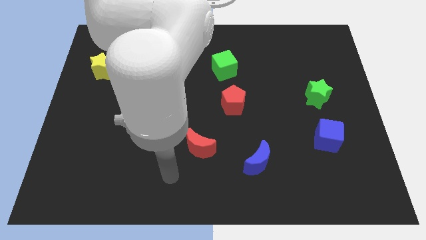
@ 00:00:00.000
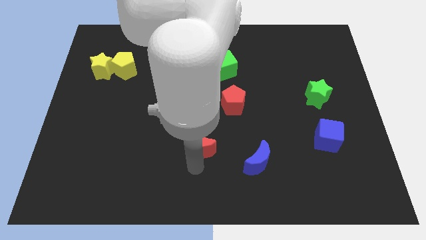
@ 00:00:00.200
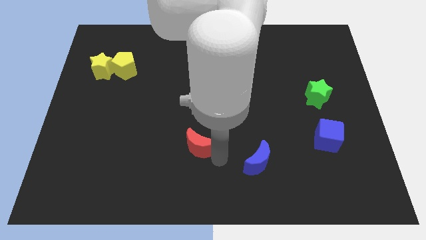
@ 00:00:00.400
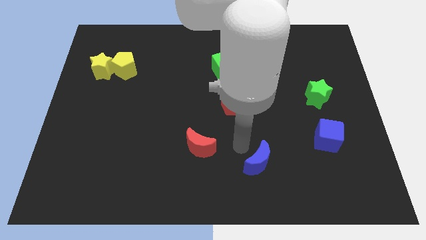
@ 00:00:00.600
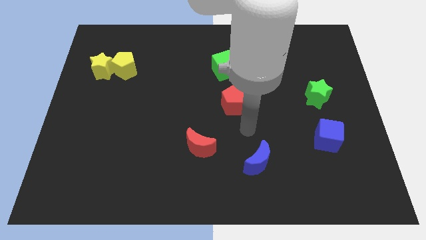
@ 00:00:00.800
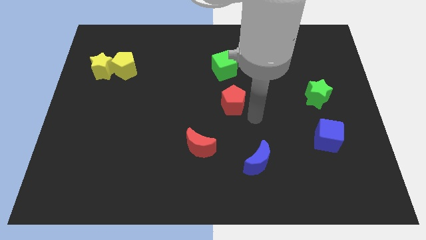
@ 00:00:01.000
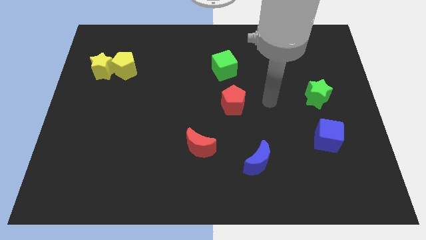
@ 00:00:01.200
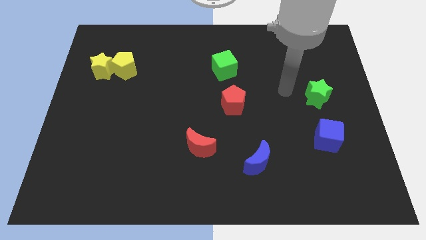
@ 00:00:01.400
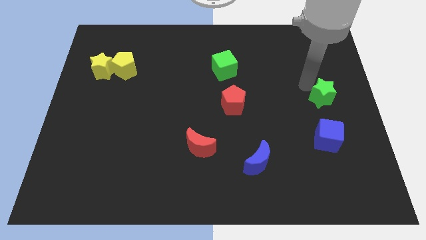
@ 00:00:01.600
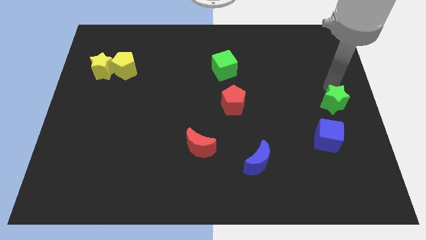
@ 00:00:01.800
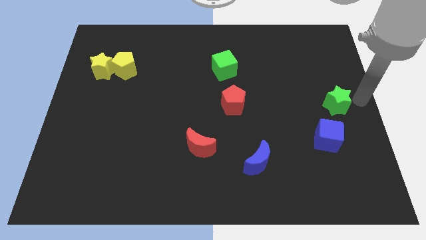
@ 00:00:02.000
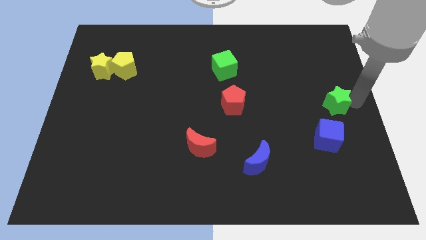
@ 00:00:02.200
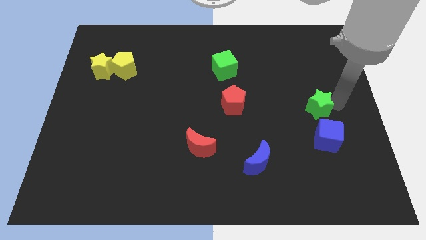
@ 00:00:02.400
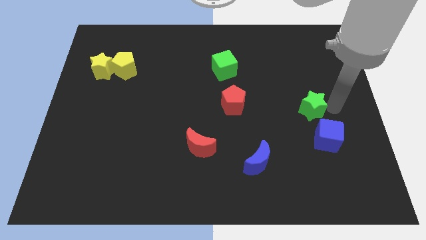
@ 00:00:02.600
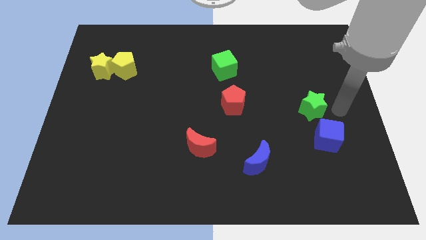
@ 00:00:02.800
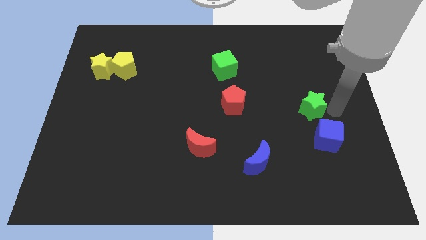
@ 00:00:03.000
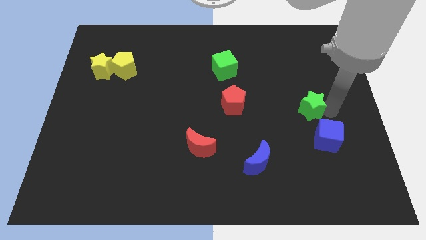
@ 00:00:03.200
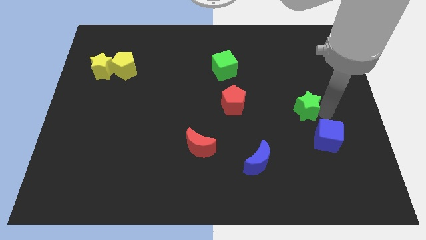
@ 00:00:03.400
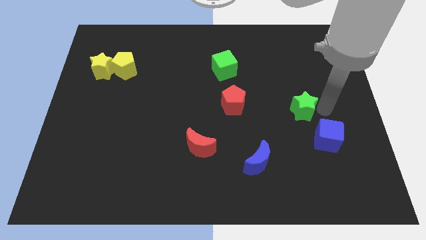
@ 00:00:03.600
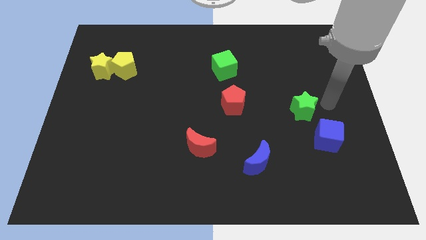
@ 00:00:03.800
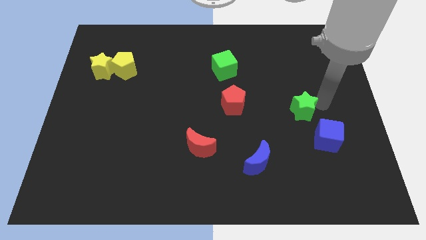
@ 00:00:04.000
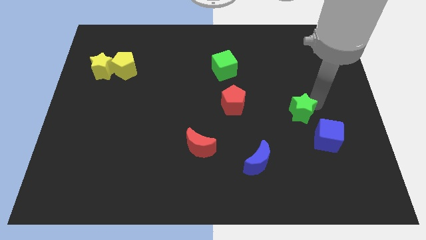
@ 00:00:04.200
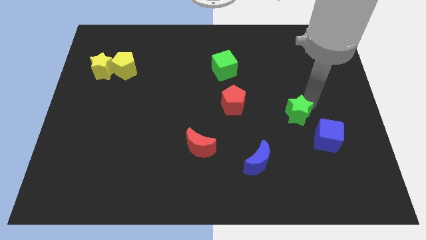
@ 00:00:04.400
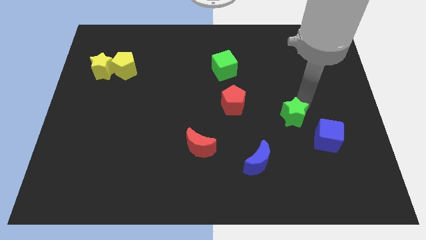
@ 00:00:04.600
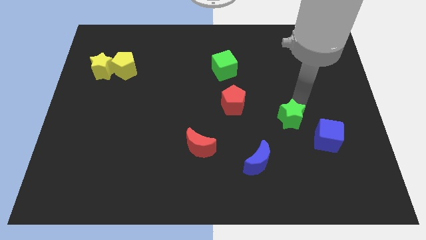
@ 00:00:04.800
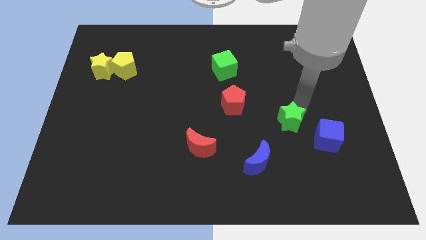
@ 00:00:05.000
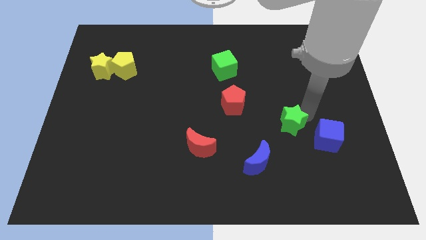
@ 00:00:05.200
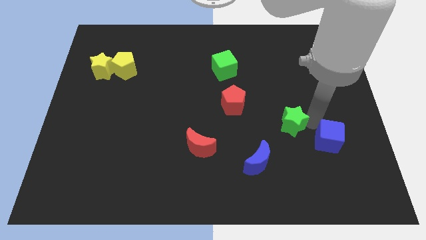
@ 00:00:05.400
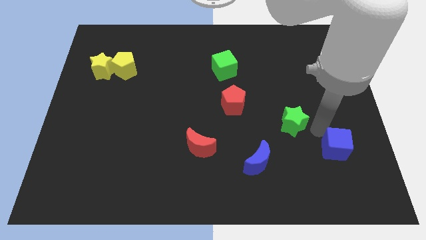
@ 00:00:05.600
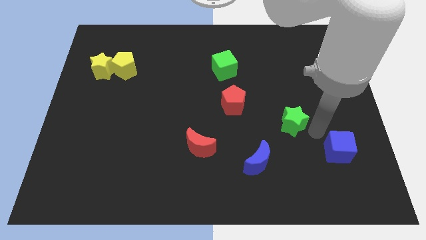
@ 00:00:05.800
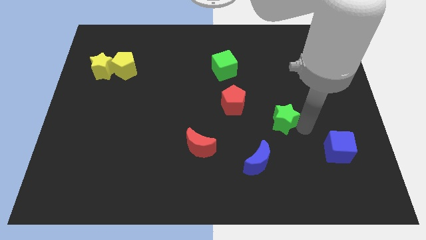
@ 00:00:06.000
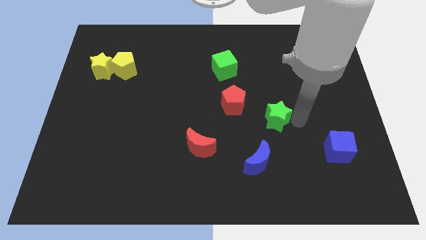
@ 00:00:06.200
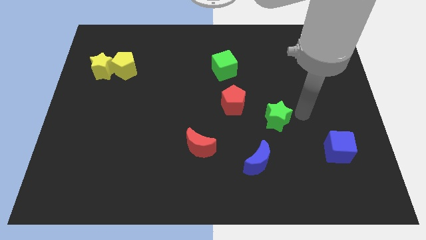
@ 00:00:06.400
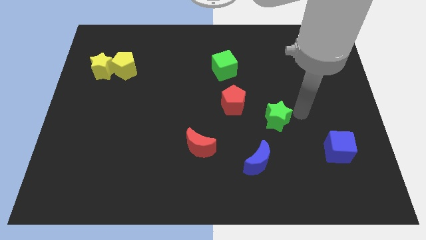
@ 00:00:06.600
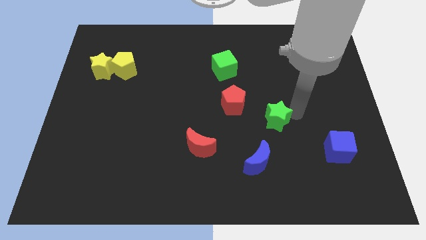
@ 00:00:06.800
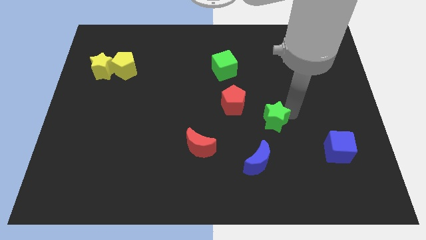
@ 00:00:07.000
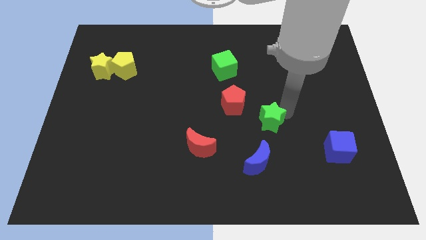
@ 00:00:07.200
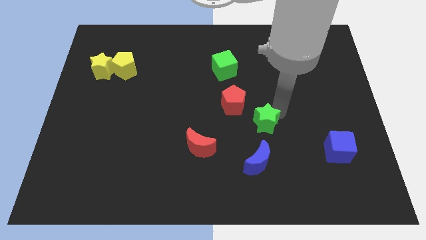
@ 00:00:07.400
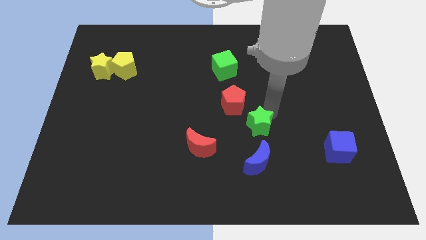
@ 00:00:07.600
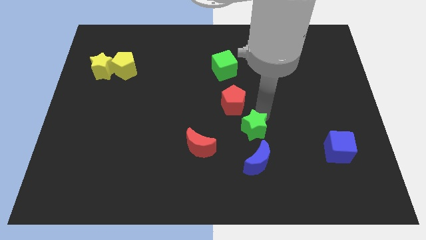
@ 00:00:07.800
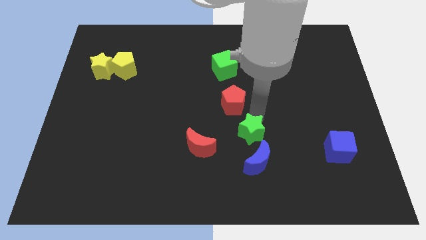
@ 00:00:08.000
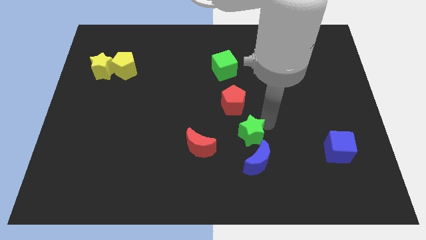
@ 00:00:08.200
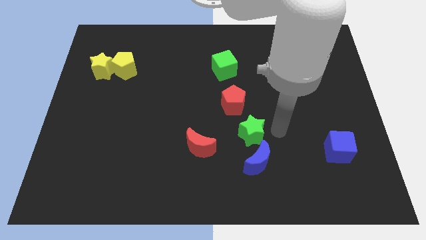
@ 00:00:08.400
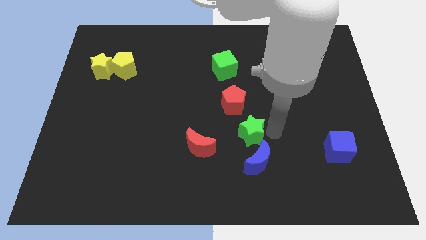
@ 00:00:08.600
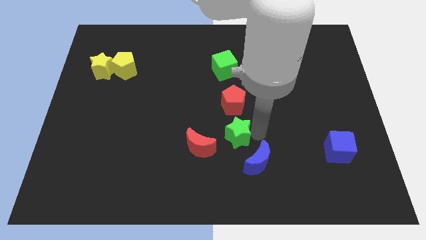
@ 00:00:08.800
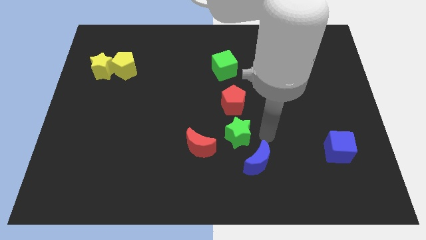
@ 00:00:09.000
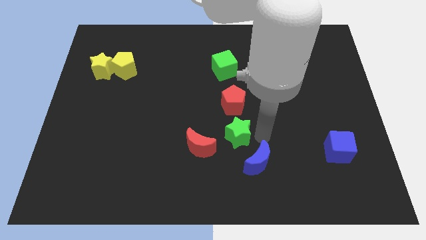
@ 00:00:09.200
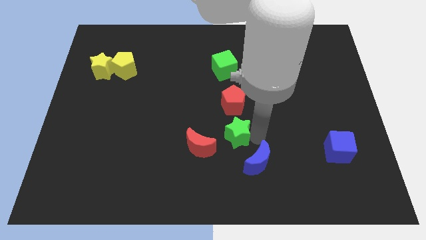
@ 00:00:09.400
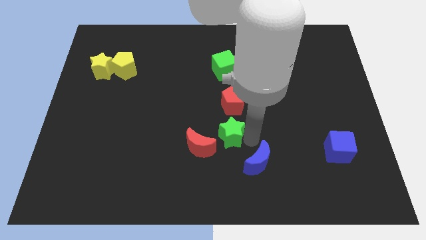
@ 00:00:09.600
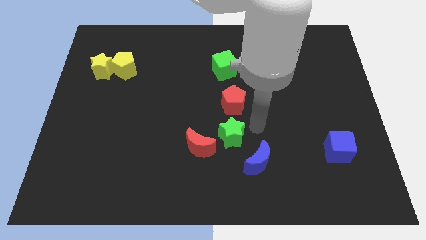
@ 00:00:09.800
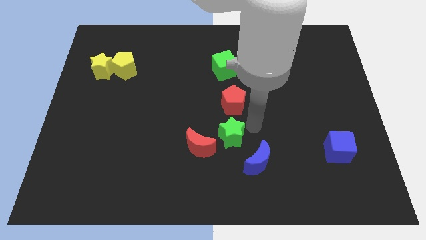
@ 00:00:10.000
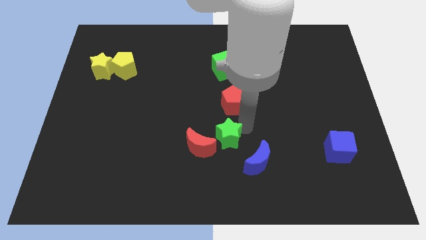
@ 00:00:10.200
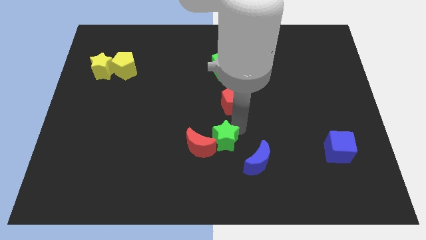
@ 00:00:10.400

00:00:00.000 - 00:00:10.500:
slide the green star to the red moon

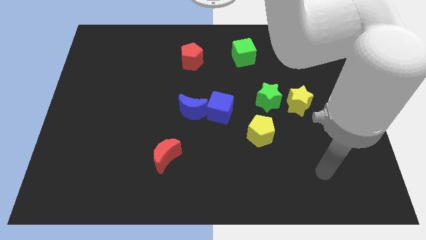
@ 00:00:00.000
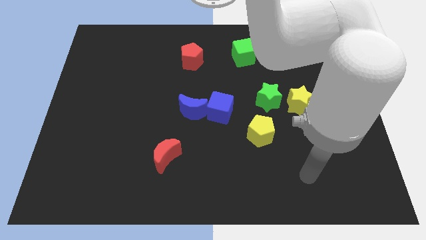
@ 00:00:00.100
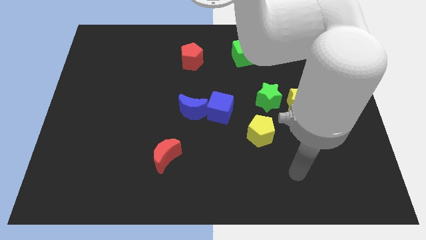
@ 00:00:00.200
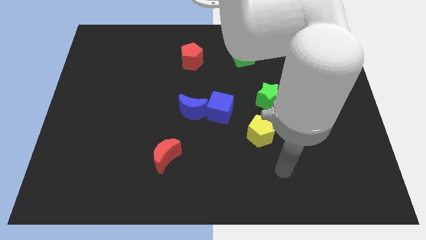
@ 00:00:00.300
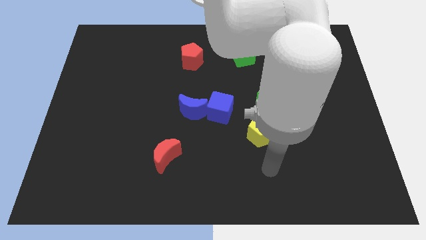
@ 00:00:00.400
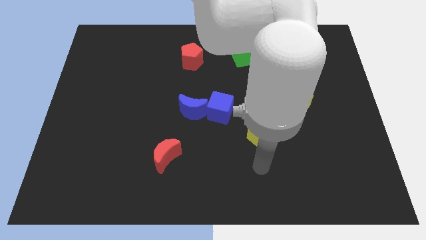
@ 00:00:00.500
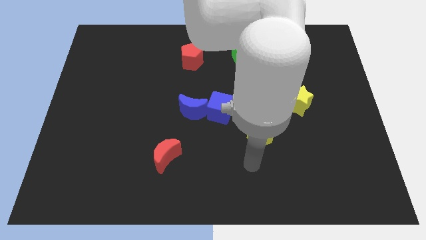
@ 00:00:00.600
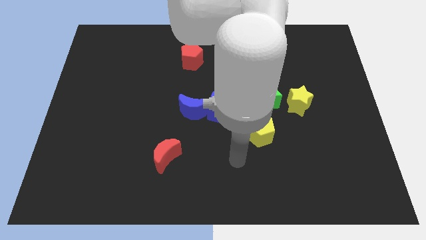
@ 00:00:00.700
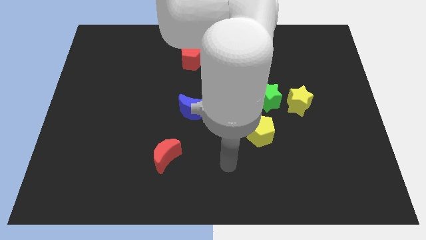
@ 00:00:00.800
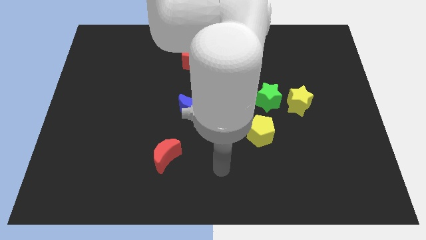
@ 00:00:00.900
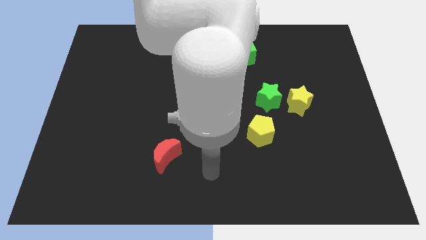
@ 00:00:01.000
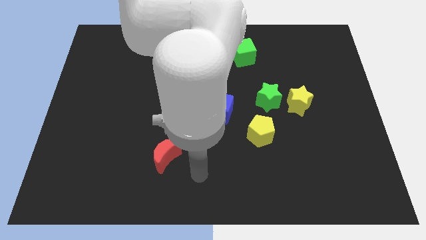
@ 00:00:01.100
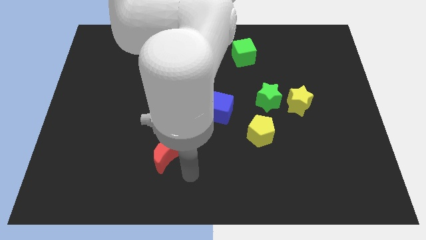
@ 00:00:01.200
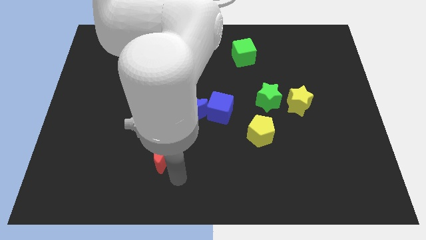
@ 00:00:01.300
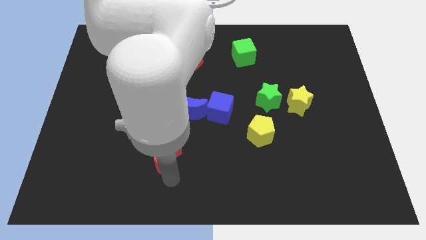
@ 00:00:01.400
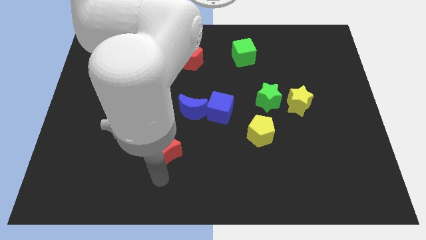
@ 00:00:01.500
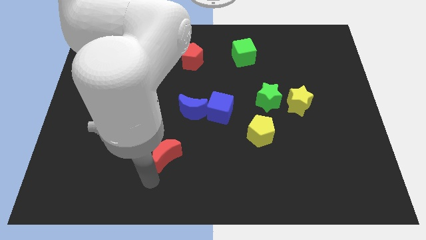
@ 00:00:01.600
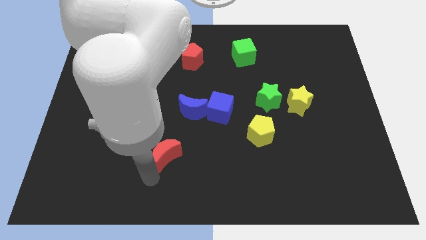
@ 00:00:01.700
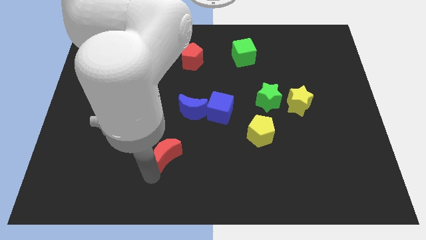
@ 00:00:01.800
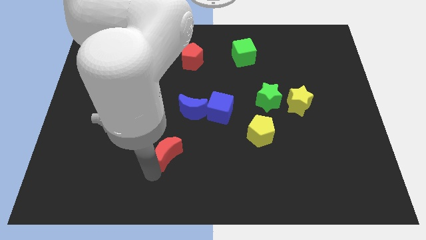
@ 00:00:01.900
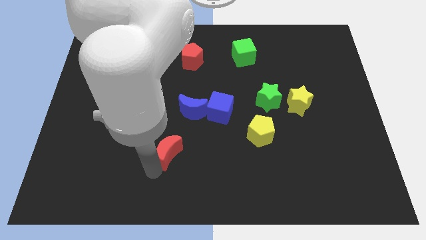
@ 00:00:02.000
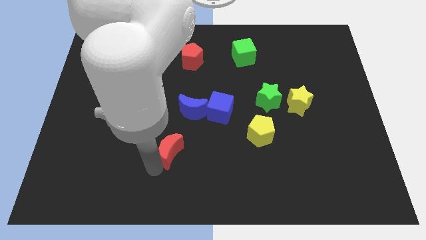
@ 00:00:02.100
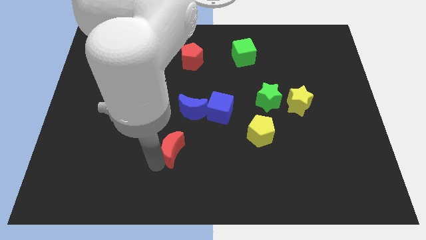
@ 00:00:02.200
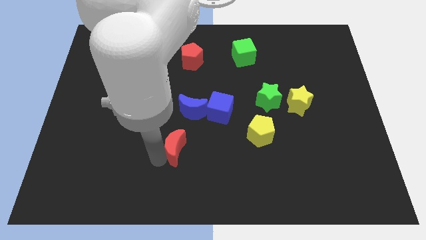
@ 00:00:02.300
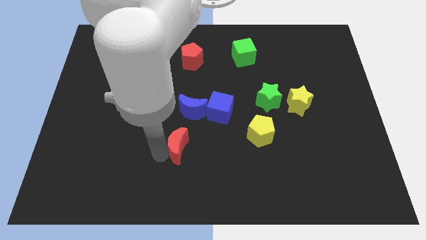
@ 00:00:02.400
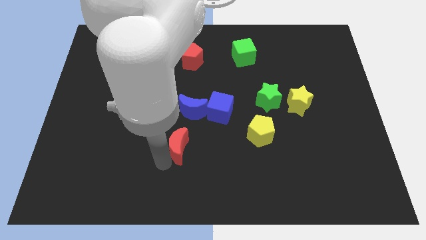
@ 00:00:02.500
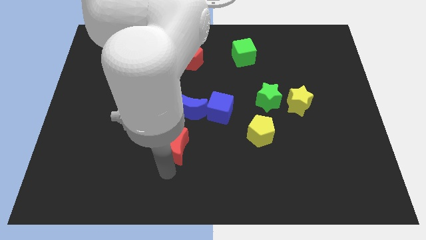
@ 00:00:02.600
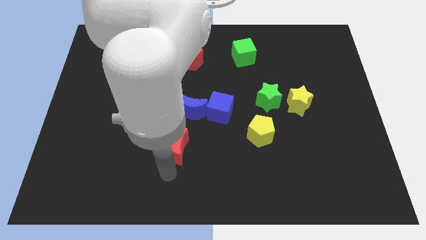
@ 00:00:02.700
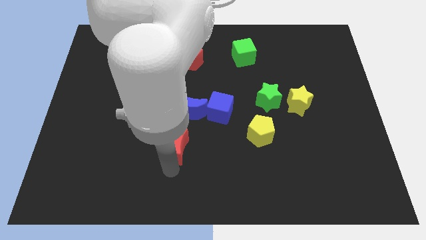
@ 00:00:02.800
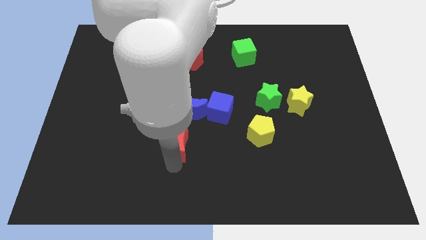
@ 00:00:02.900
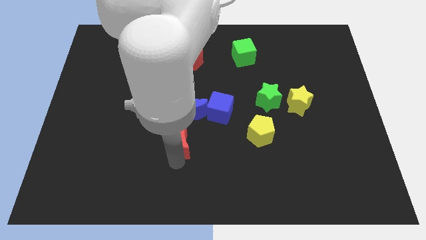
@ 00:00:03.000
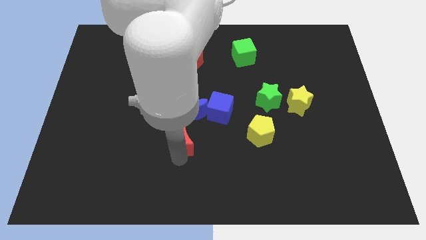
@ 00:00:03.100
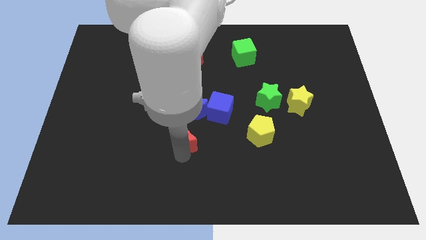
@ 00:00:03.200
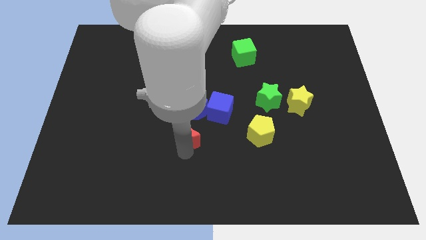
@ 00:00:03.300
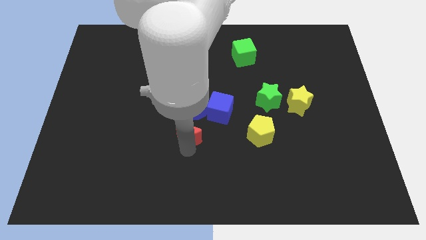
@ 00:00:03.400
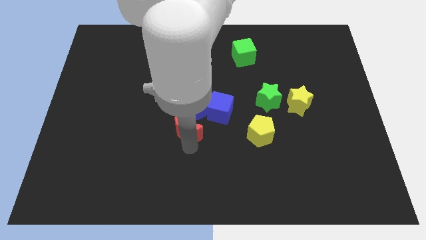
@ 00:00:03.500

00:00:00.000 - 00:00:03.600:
put the red moon towards the blue moon
